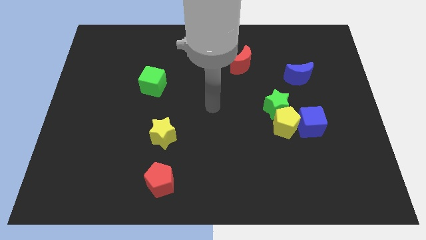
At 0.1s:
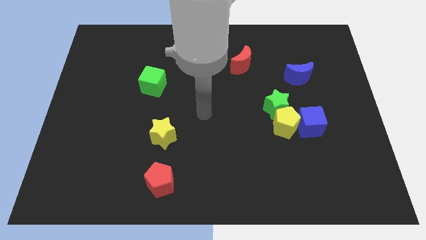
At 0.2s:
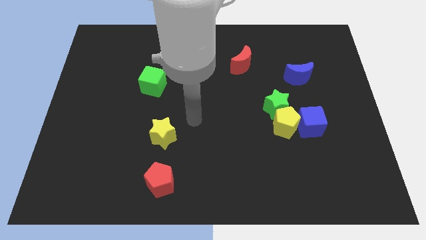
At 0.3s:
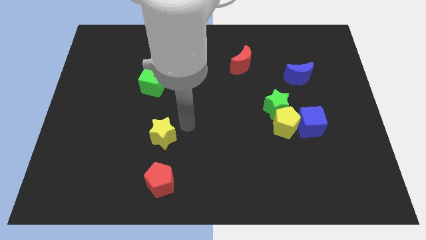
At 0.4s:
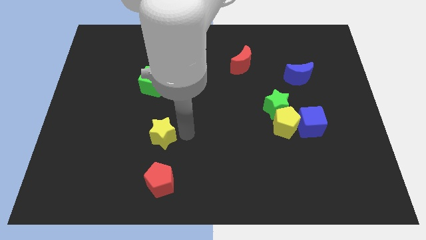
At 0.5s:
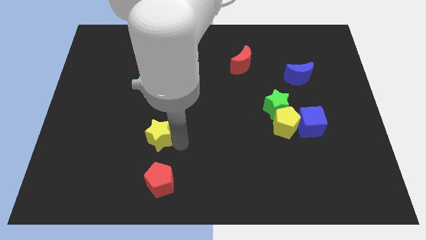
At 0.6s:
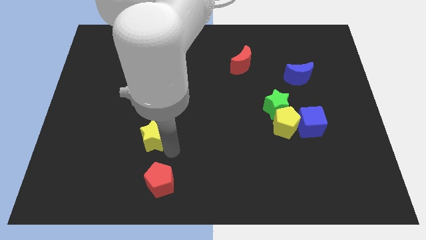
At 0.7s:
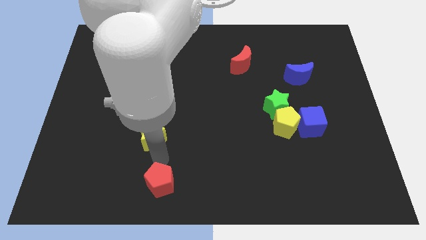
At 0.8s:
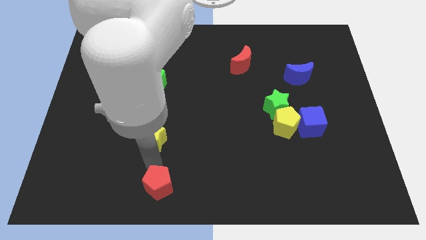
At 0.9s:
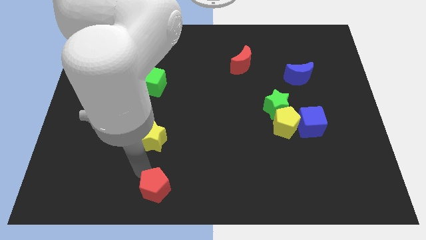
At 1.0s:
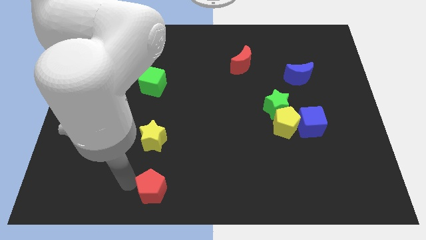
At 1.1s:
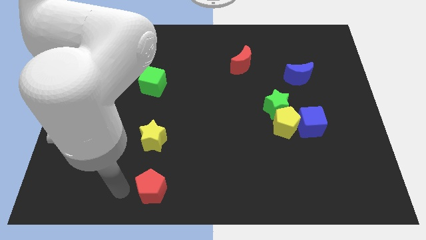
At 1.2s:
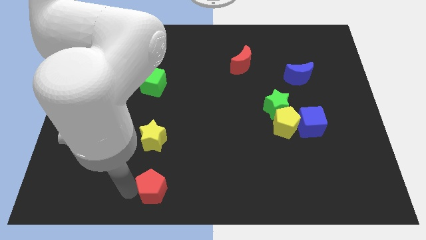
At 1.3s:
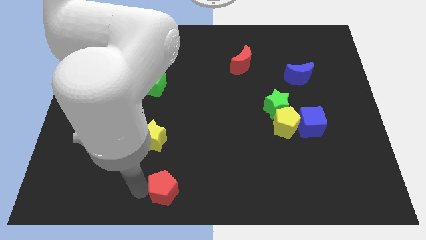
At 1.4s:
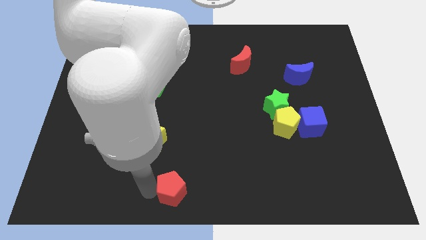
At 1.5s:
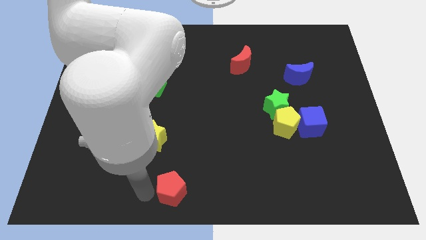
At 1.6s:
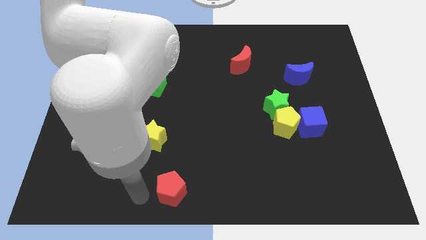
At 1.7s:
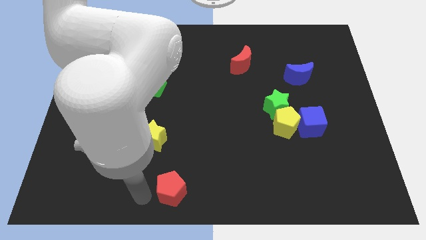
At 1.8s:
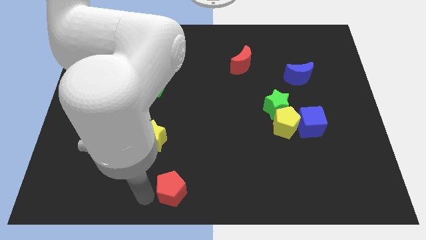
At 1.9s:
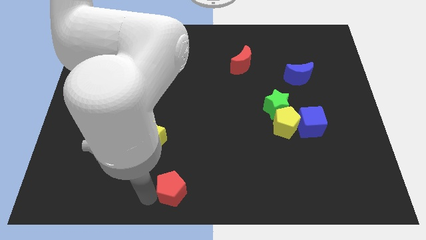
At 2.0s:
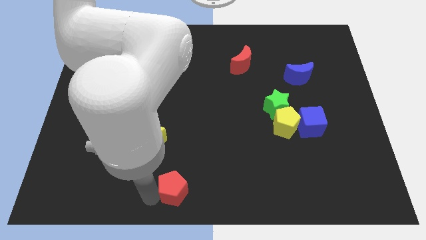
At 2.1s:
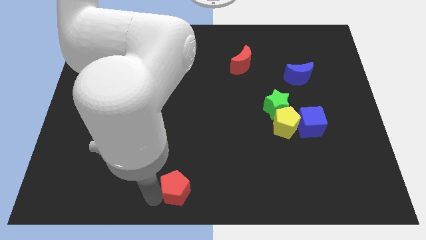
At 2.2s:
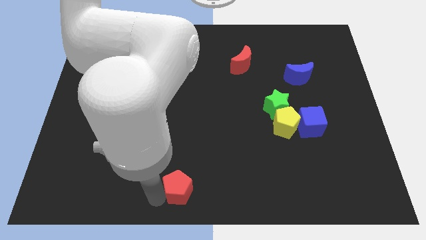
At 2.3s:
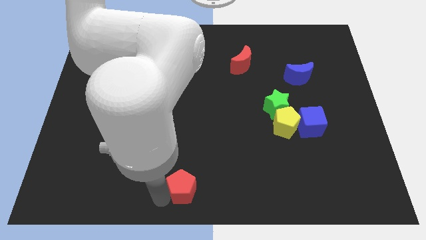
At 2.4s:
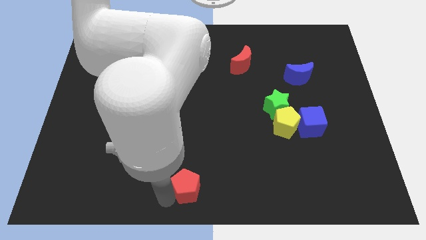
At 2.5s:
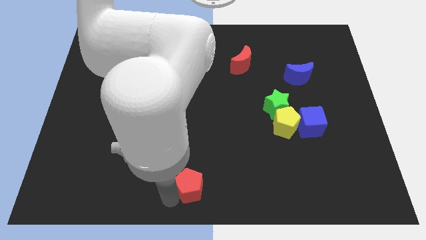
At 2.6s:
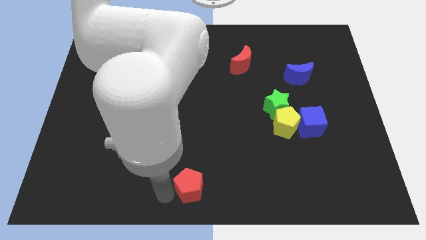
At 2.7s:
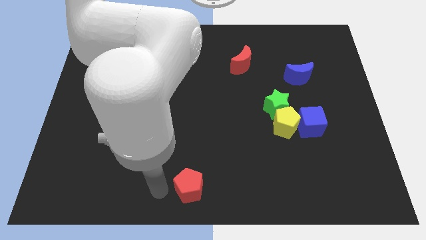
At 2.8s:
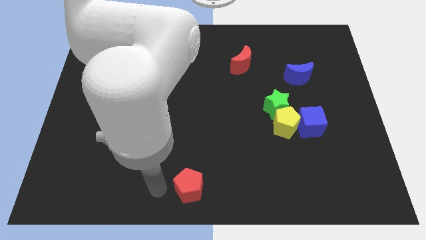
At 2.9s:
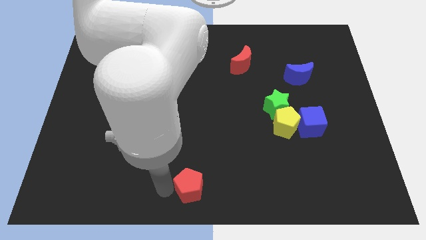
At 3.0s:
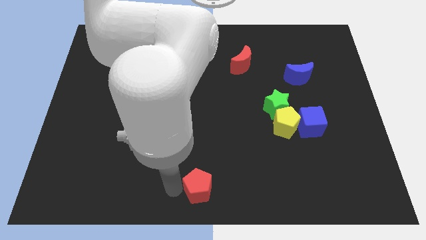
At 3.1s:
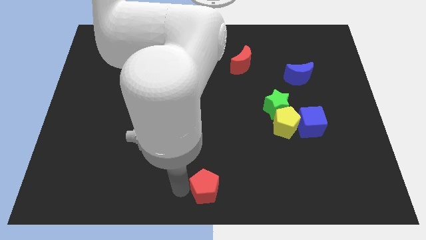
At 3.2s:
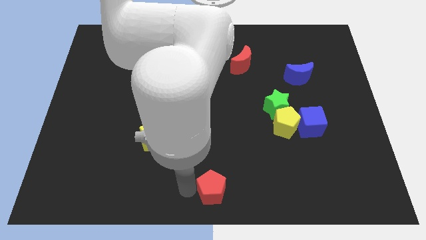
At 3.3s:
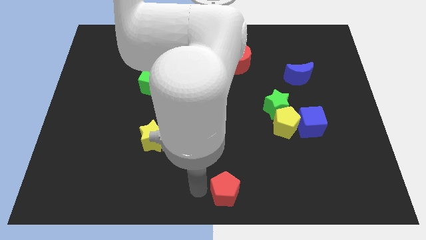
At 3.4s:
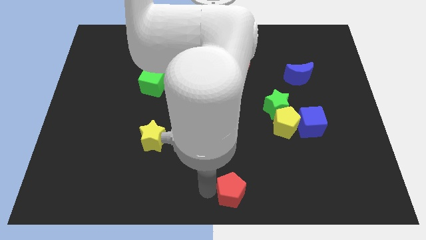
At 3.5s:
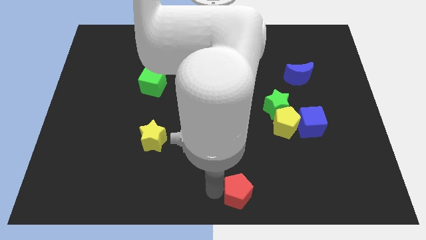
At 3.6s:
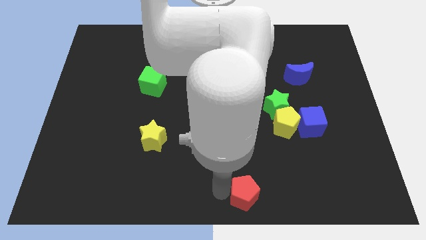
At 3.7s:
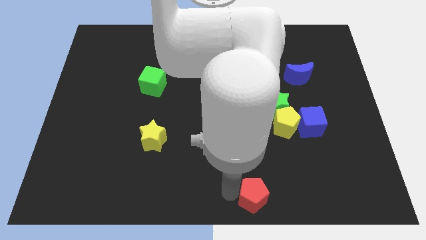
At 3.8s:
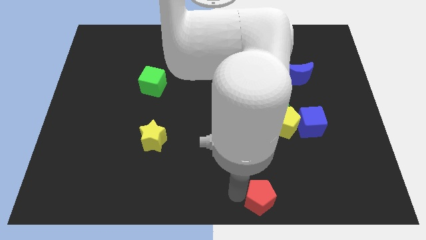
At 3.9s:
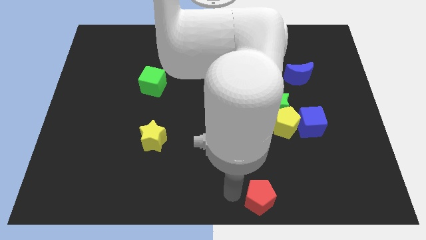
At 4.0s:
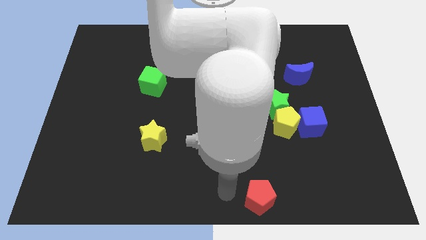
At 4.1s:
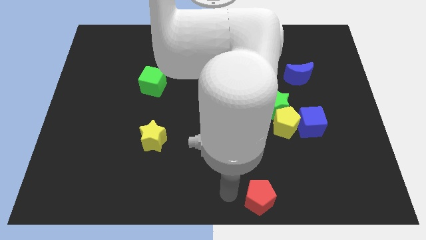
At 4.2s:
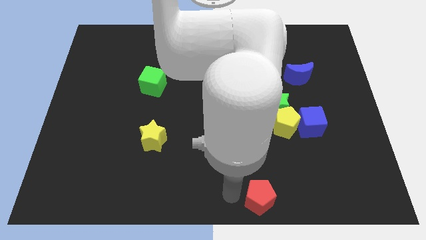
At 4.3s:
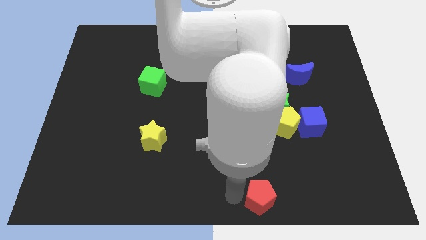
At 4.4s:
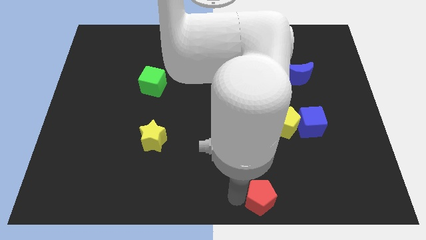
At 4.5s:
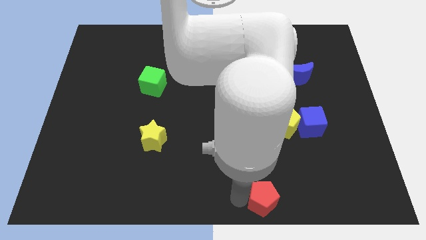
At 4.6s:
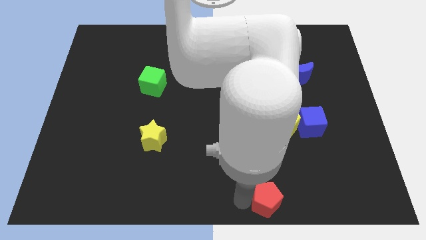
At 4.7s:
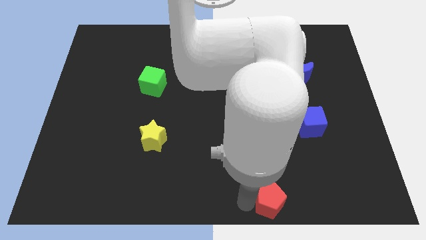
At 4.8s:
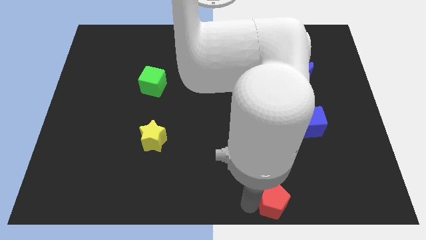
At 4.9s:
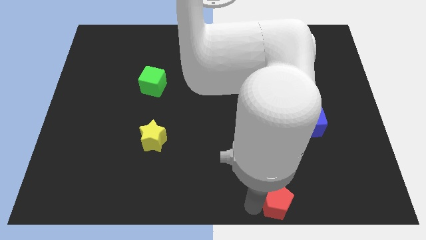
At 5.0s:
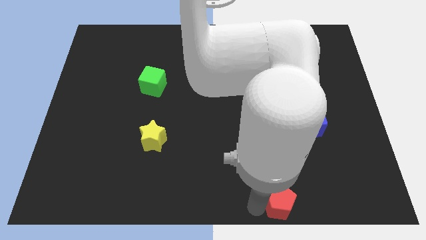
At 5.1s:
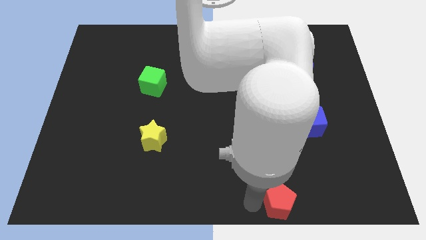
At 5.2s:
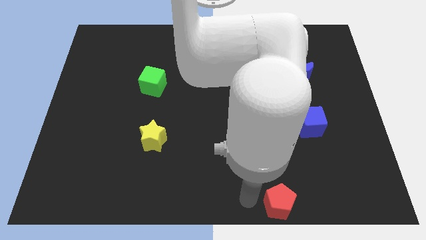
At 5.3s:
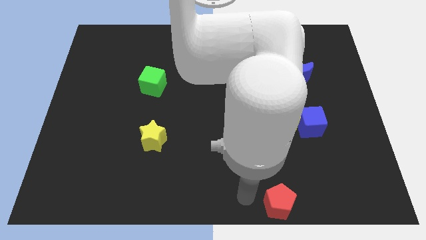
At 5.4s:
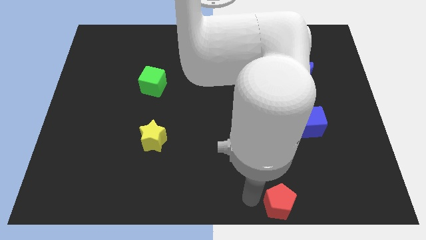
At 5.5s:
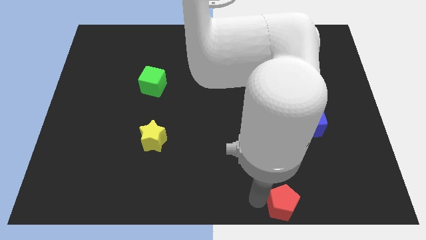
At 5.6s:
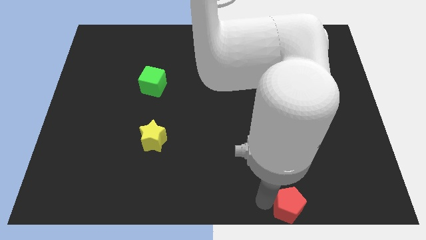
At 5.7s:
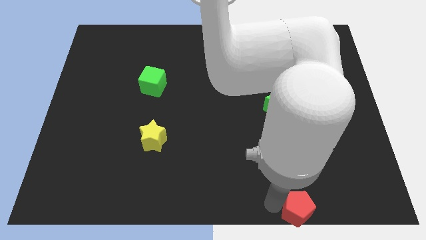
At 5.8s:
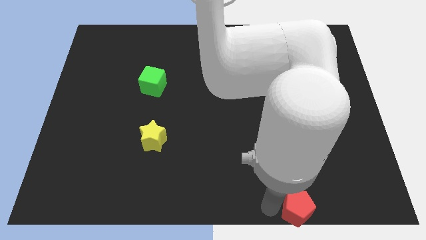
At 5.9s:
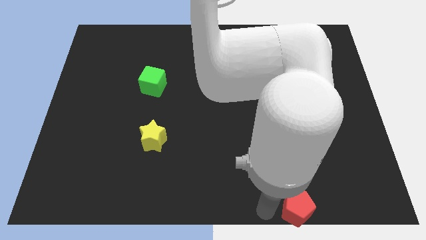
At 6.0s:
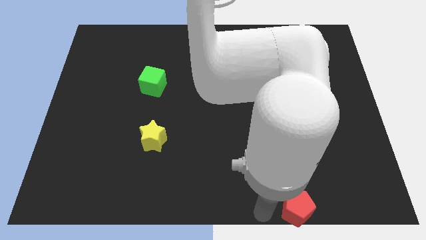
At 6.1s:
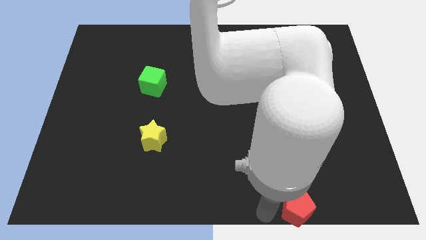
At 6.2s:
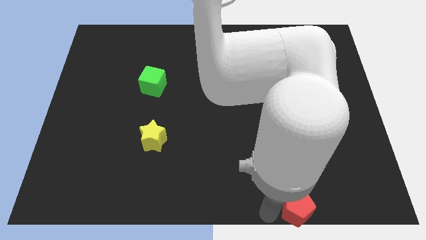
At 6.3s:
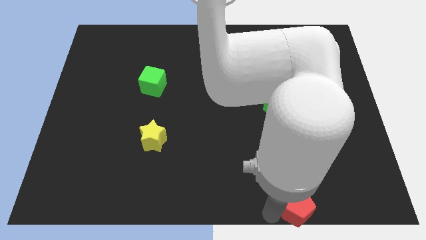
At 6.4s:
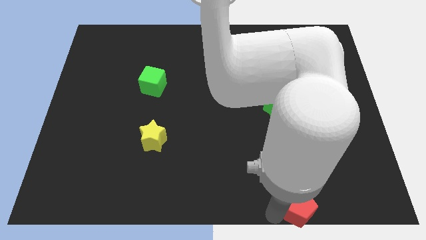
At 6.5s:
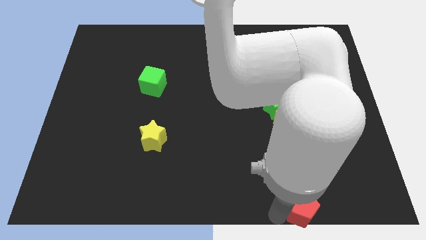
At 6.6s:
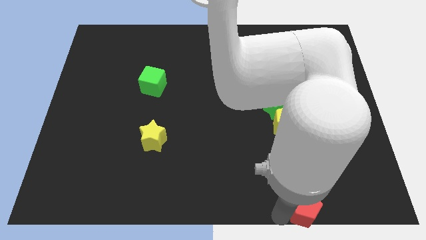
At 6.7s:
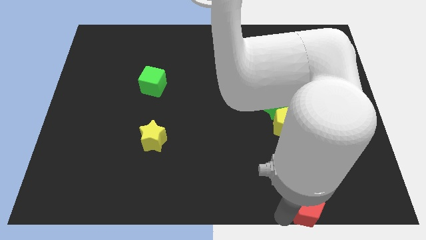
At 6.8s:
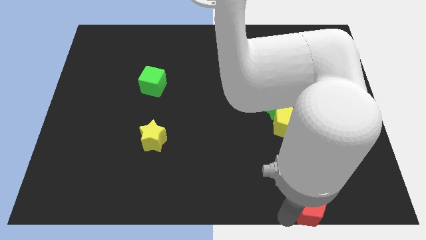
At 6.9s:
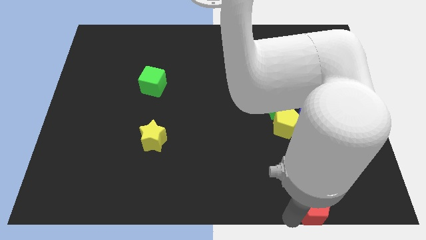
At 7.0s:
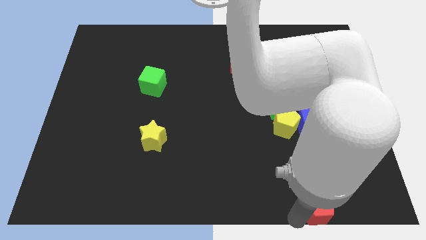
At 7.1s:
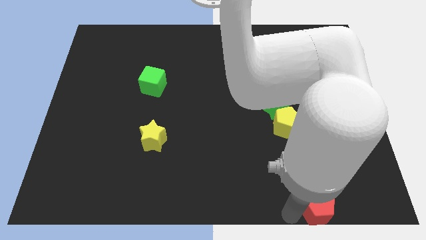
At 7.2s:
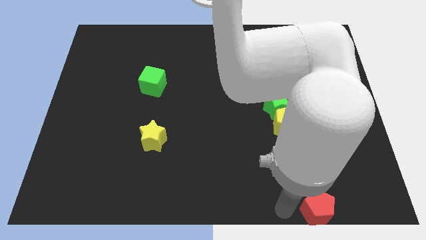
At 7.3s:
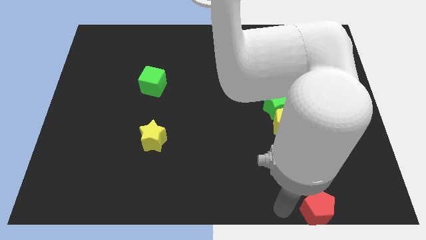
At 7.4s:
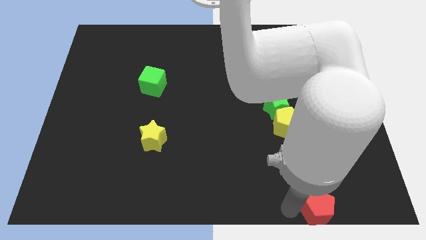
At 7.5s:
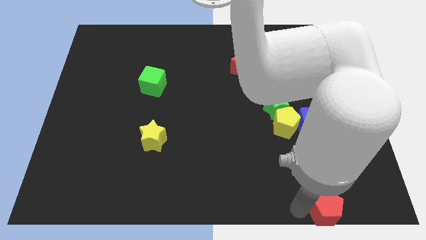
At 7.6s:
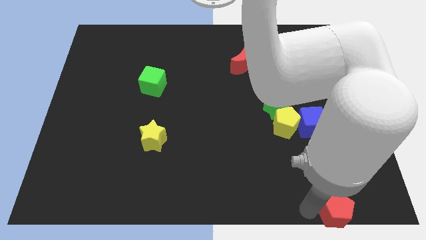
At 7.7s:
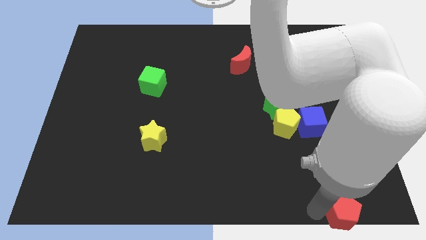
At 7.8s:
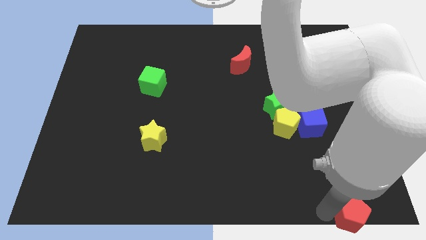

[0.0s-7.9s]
push the red pentagon to the bottom right corner

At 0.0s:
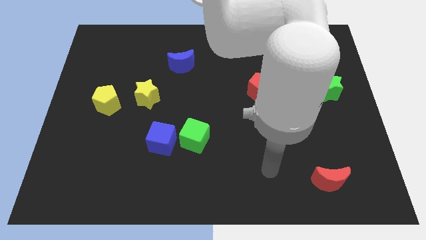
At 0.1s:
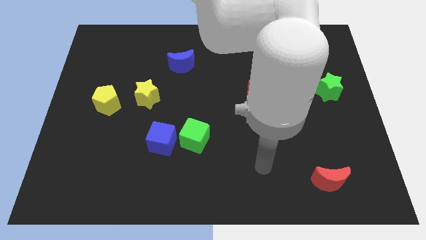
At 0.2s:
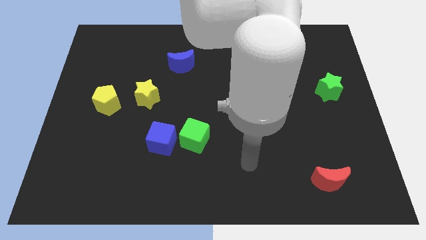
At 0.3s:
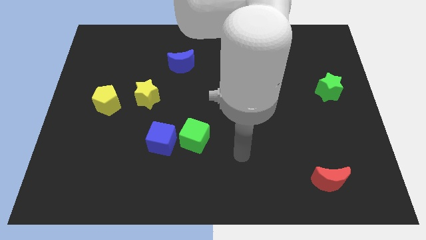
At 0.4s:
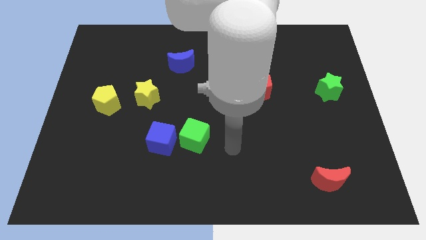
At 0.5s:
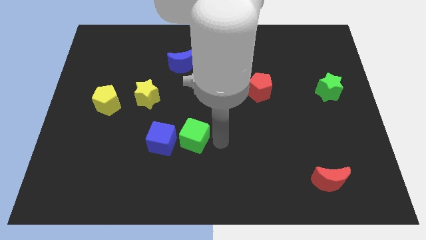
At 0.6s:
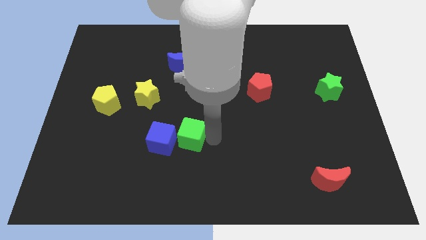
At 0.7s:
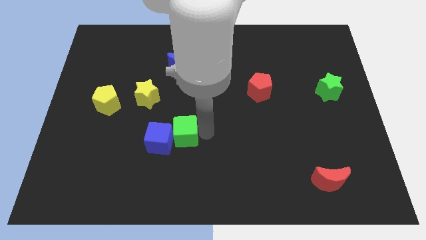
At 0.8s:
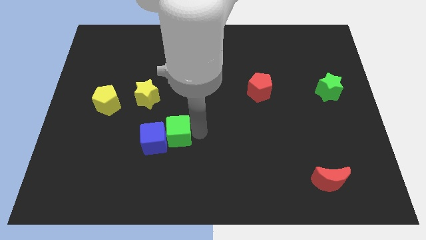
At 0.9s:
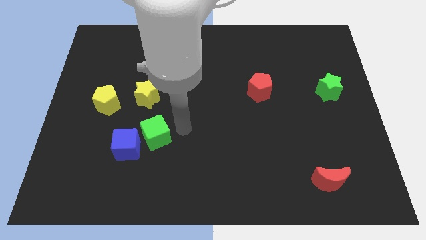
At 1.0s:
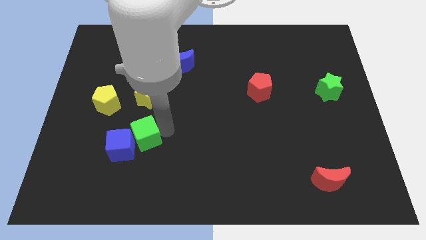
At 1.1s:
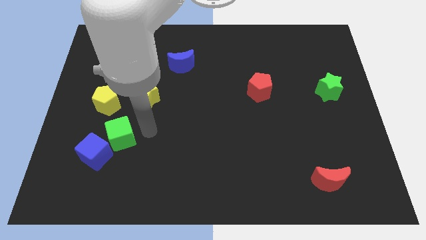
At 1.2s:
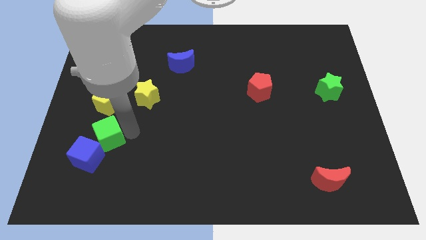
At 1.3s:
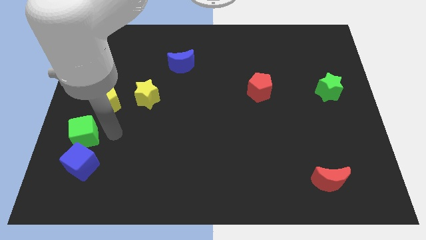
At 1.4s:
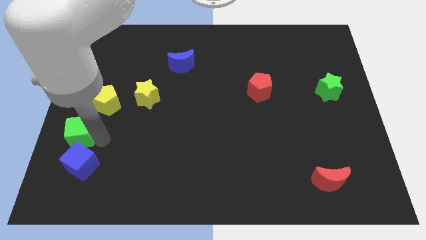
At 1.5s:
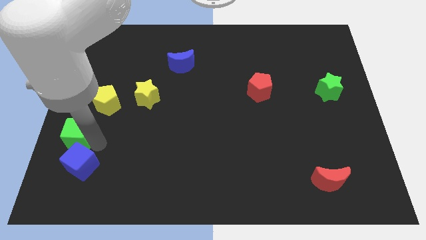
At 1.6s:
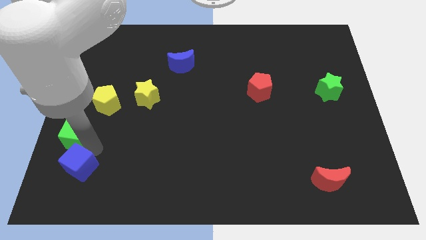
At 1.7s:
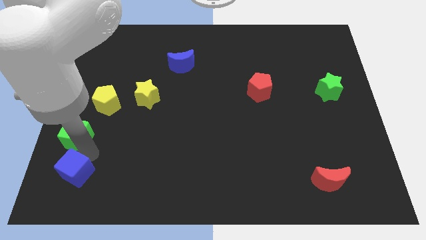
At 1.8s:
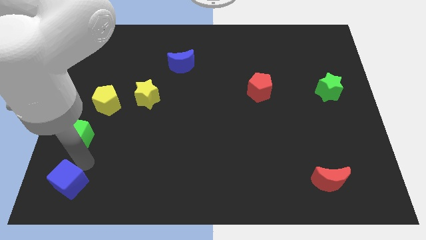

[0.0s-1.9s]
put the blue cube to the lower left corner
